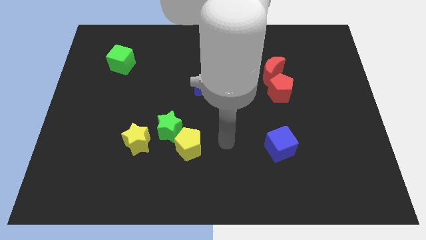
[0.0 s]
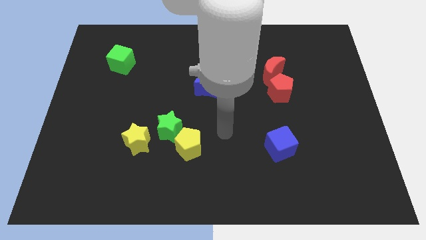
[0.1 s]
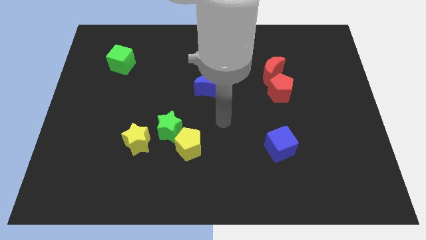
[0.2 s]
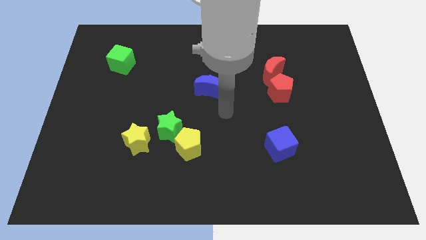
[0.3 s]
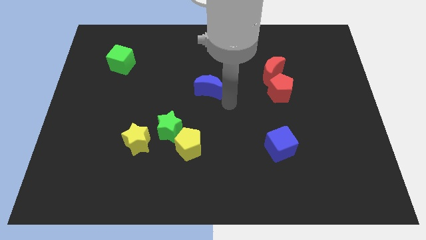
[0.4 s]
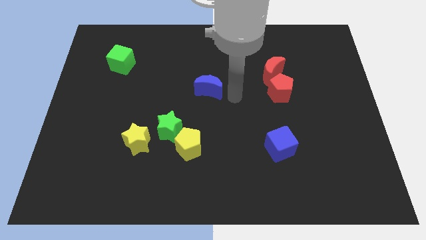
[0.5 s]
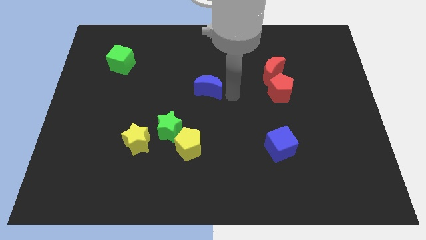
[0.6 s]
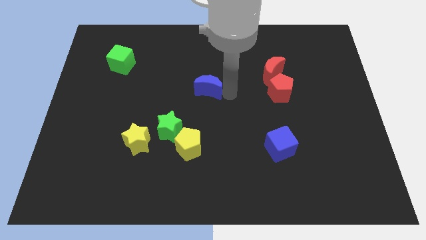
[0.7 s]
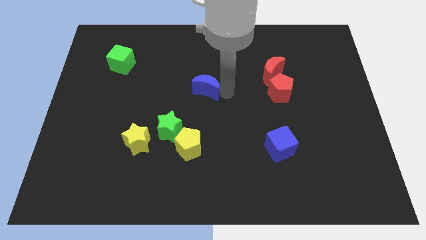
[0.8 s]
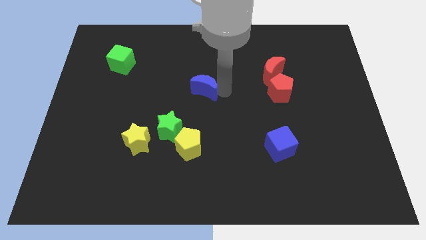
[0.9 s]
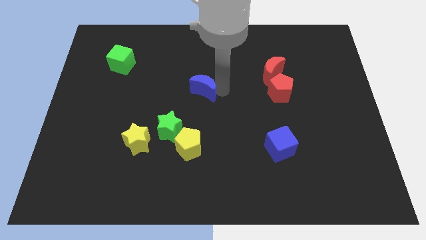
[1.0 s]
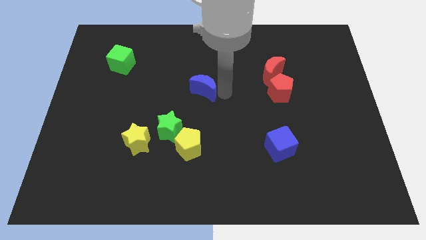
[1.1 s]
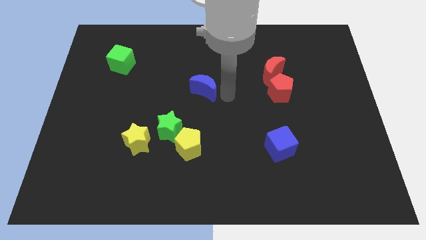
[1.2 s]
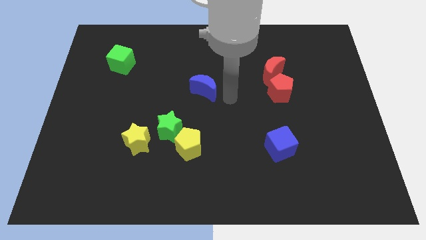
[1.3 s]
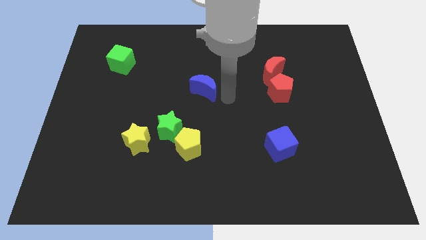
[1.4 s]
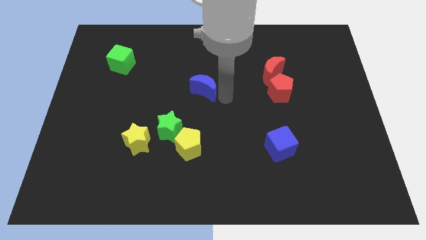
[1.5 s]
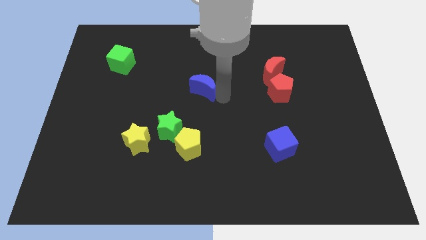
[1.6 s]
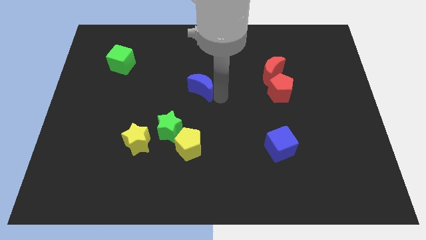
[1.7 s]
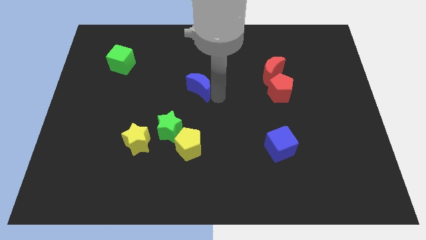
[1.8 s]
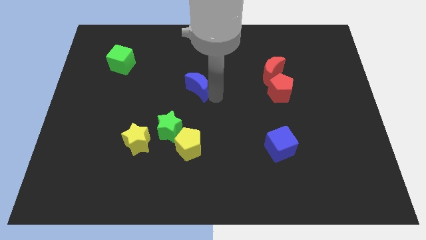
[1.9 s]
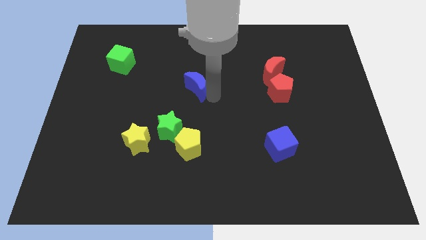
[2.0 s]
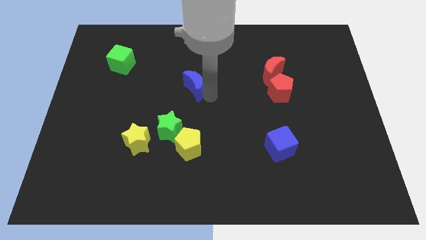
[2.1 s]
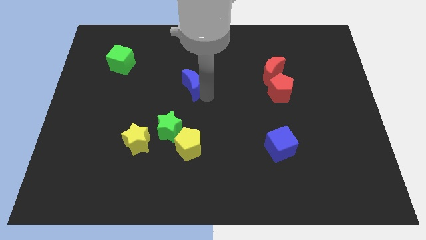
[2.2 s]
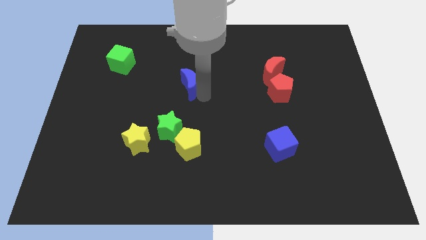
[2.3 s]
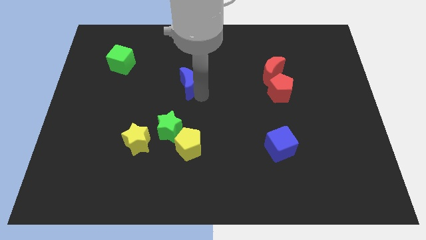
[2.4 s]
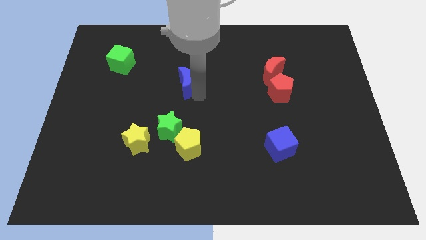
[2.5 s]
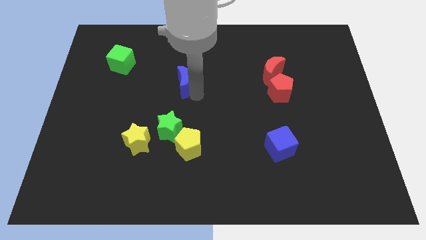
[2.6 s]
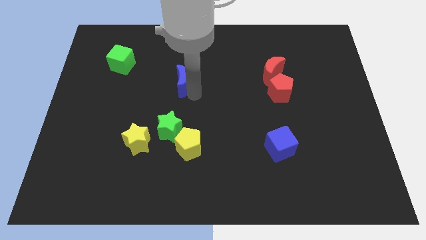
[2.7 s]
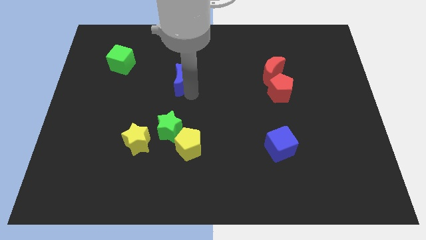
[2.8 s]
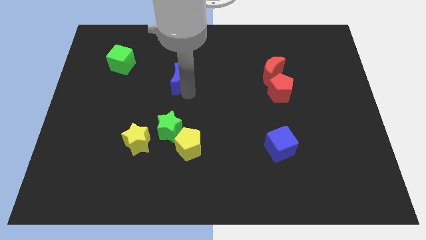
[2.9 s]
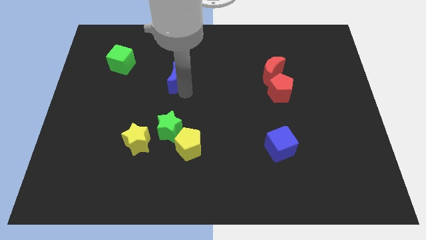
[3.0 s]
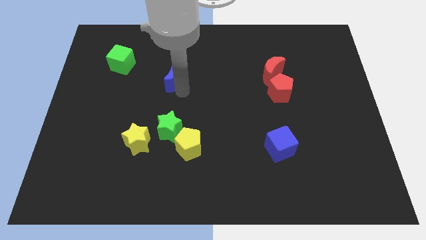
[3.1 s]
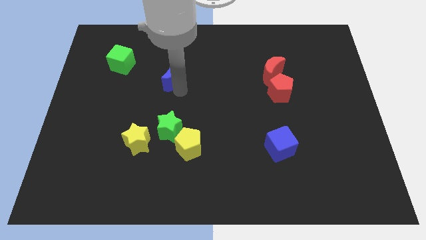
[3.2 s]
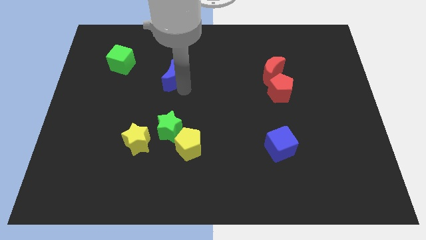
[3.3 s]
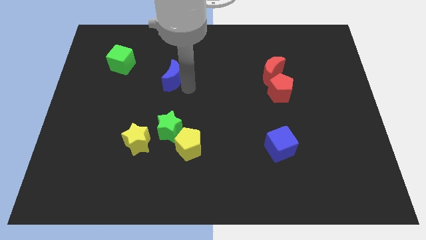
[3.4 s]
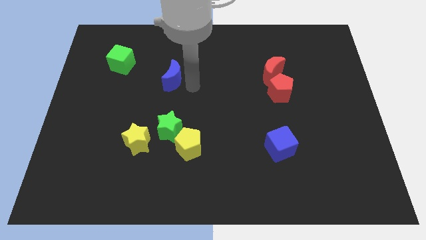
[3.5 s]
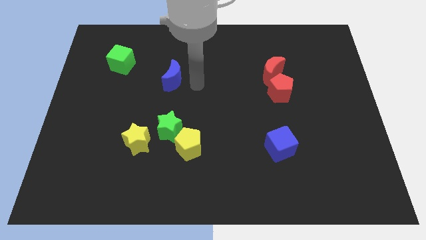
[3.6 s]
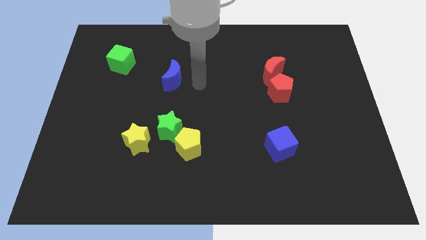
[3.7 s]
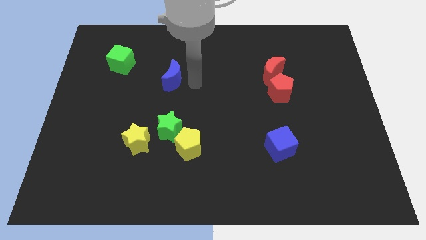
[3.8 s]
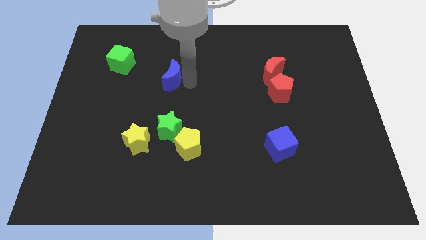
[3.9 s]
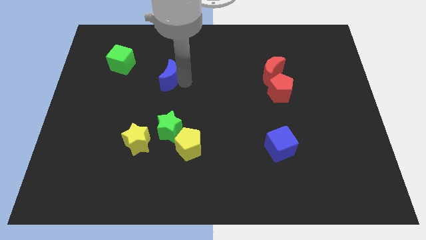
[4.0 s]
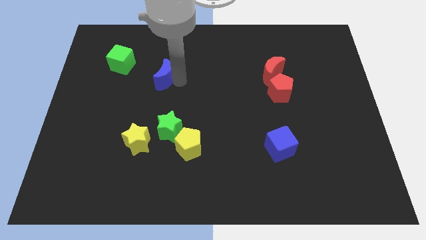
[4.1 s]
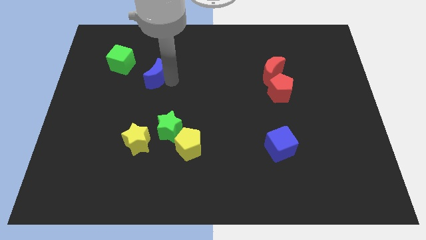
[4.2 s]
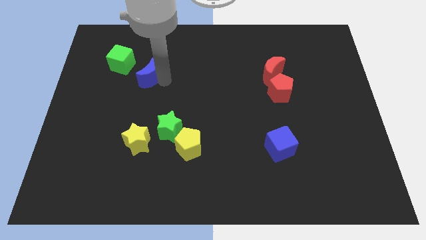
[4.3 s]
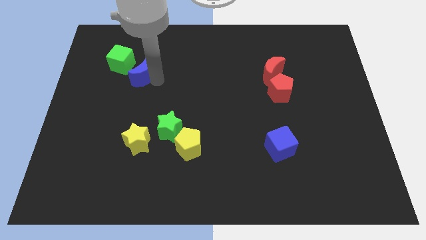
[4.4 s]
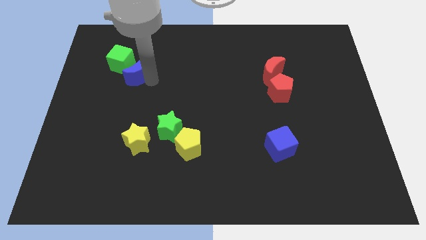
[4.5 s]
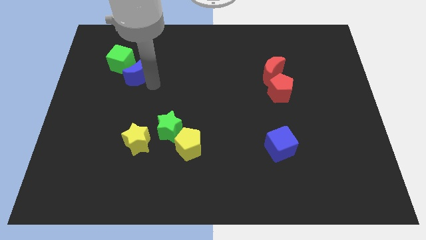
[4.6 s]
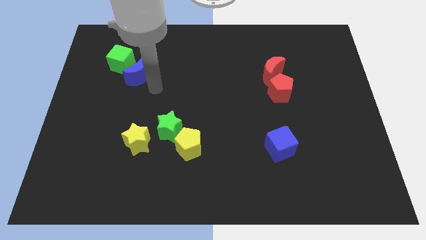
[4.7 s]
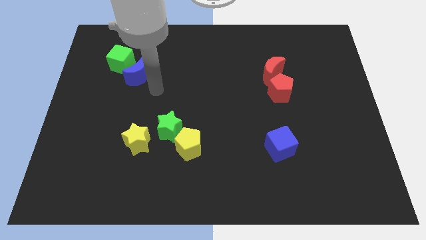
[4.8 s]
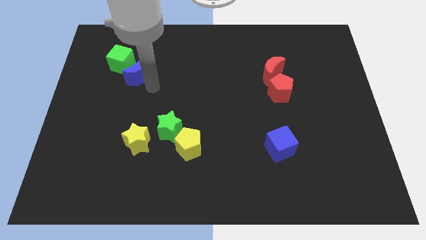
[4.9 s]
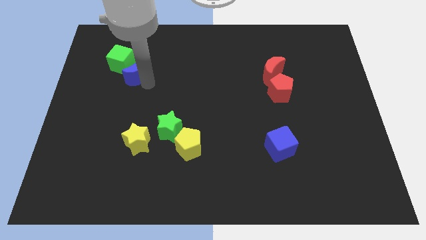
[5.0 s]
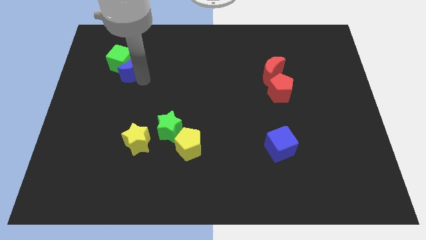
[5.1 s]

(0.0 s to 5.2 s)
push the blue moon close to the green cube

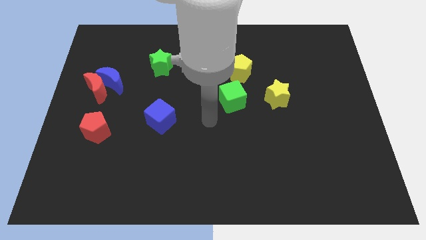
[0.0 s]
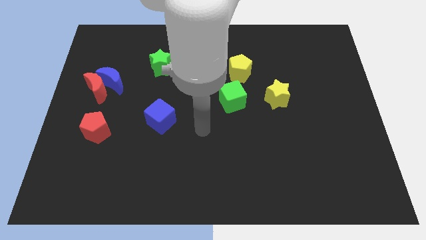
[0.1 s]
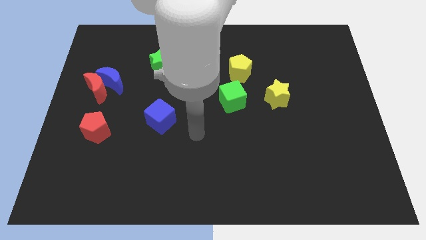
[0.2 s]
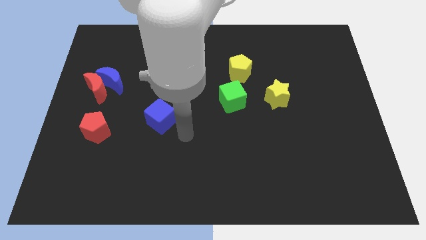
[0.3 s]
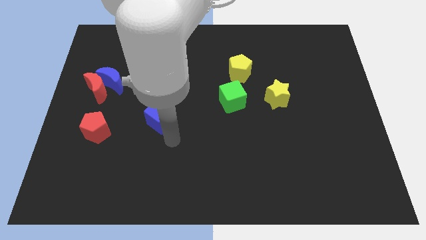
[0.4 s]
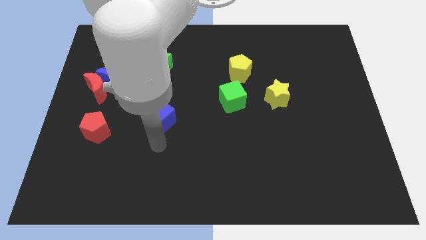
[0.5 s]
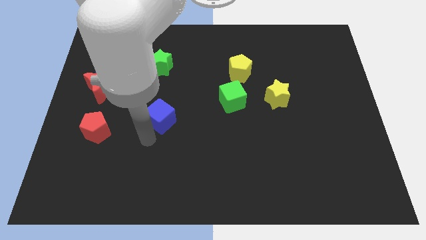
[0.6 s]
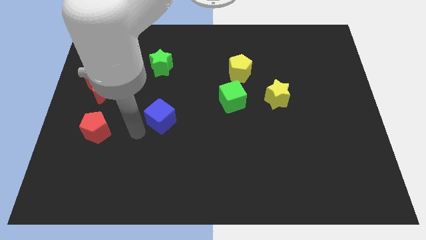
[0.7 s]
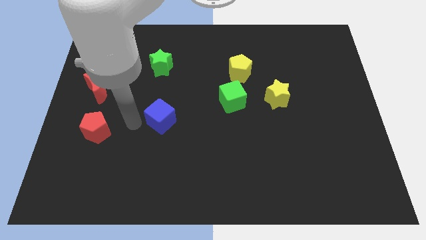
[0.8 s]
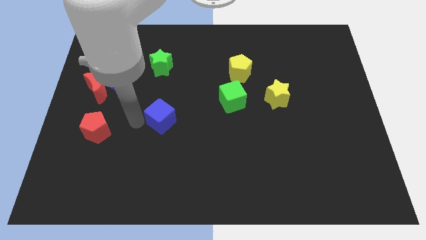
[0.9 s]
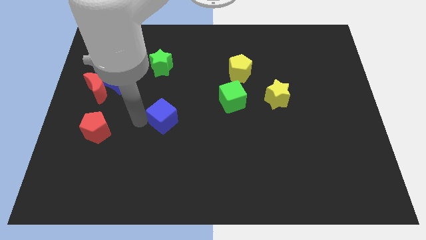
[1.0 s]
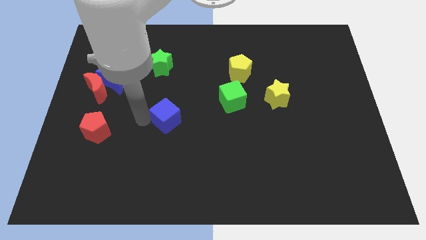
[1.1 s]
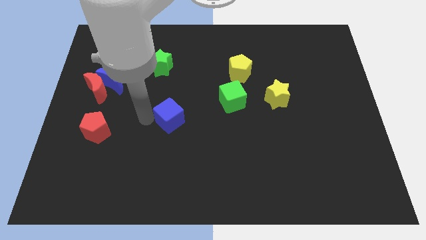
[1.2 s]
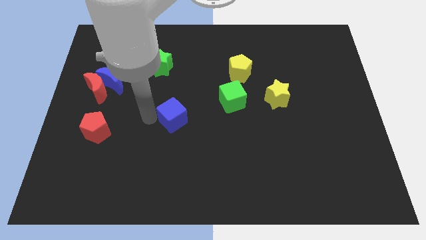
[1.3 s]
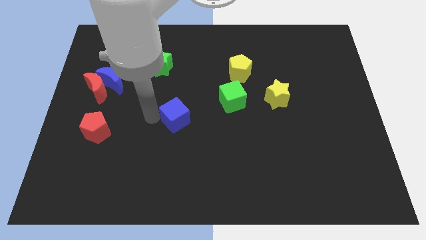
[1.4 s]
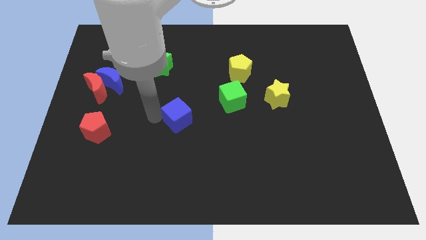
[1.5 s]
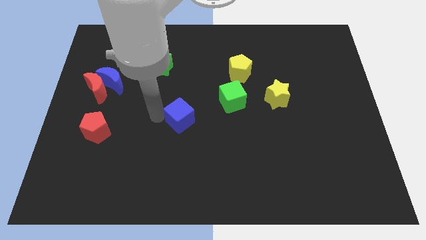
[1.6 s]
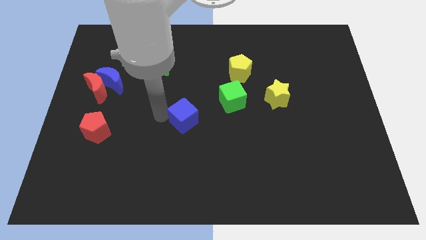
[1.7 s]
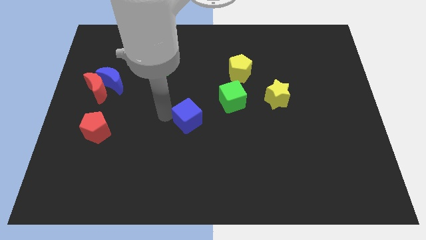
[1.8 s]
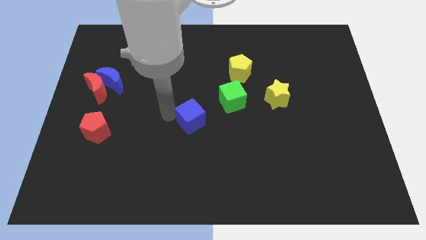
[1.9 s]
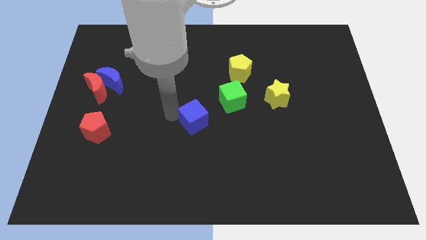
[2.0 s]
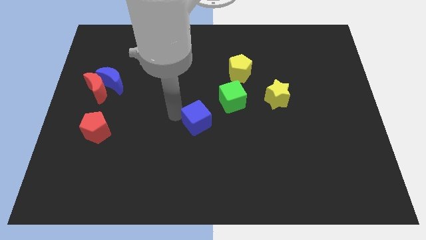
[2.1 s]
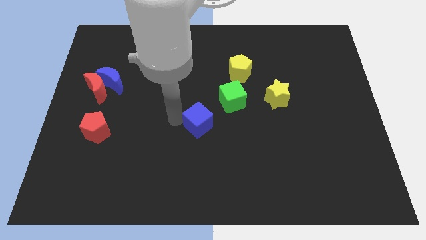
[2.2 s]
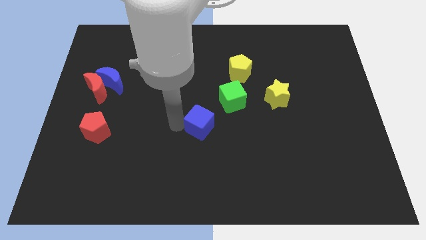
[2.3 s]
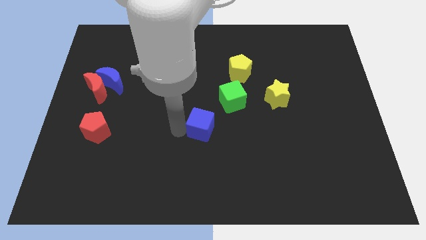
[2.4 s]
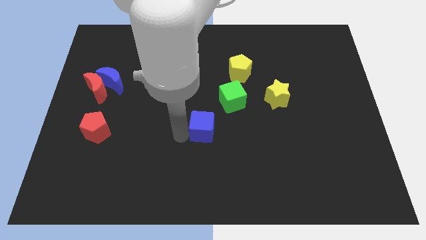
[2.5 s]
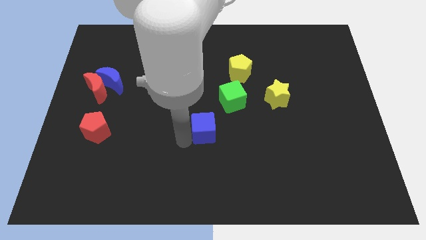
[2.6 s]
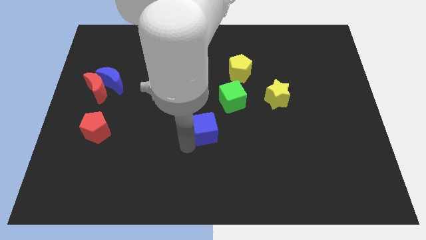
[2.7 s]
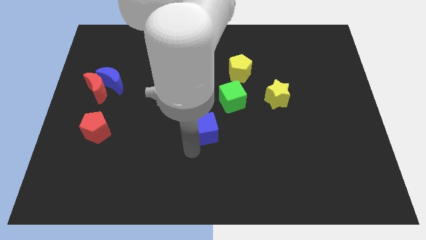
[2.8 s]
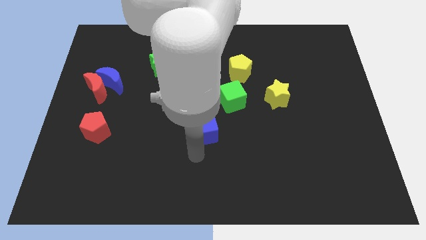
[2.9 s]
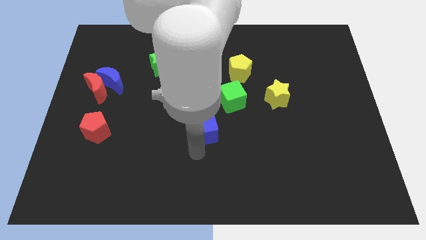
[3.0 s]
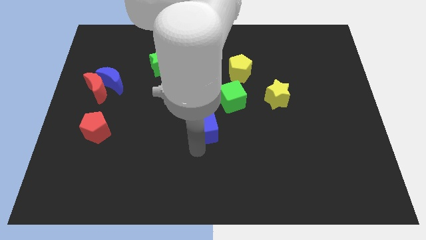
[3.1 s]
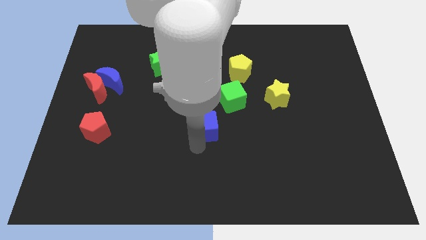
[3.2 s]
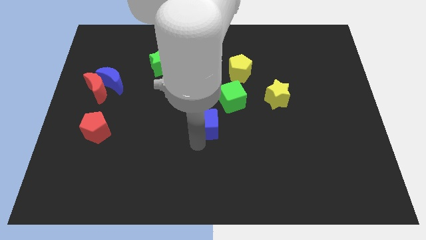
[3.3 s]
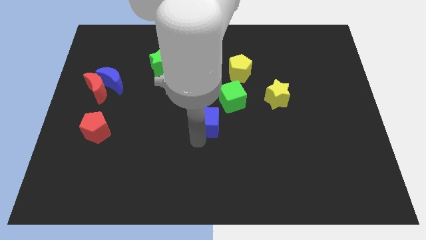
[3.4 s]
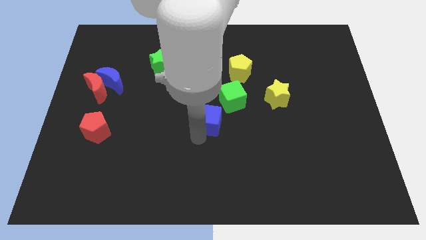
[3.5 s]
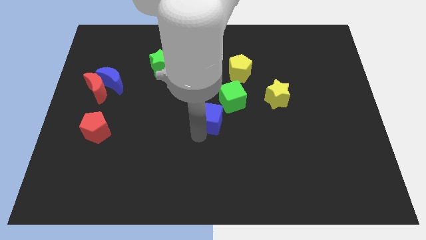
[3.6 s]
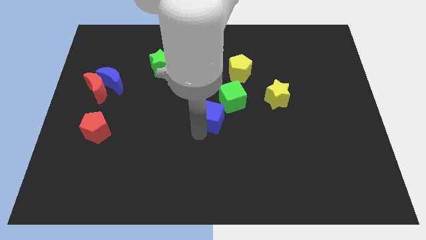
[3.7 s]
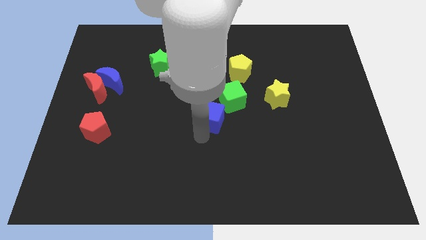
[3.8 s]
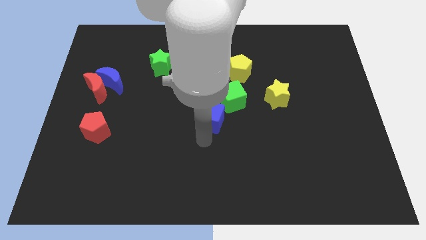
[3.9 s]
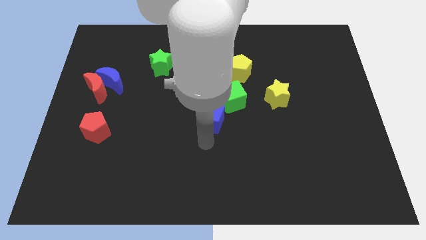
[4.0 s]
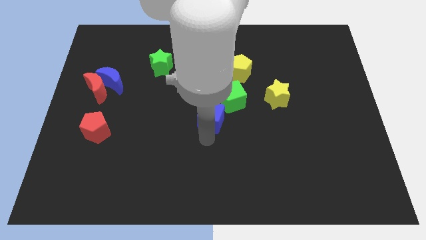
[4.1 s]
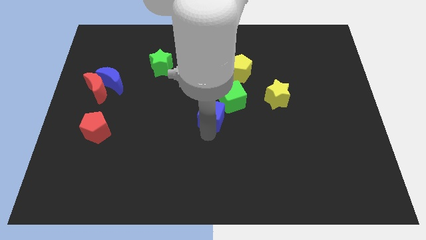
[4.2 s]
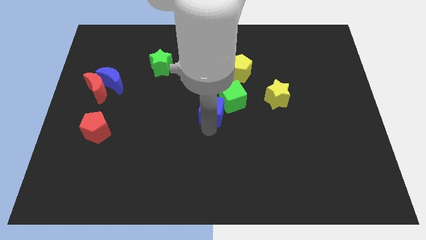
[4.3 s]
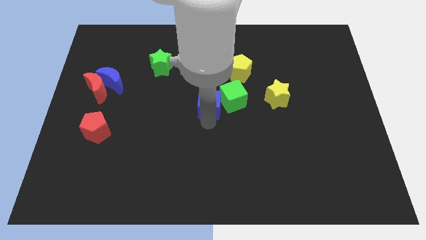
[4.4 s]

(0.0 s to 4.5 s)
slide the blue cube close to the green cube
